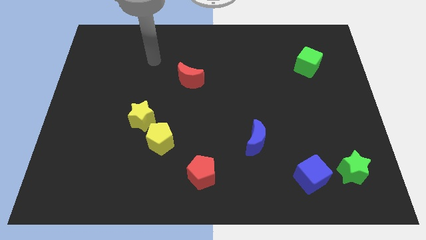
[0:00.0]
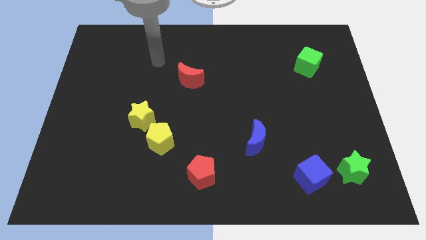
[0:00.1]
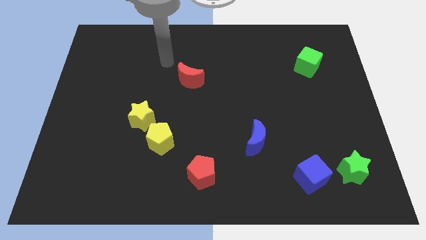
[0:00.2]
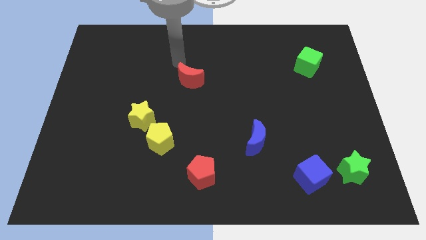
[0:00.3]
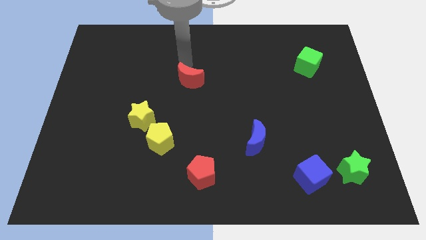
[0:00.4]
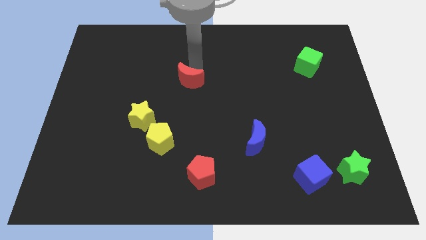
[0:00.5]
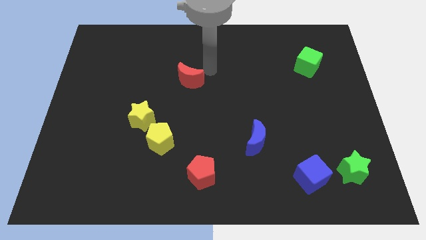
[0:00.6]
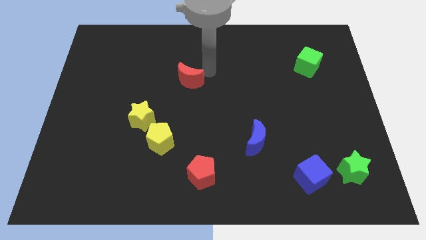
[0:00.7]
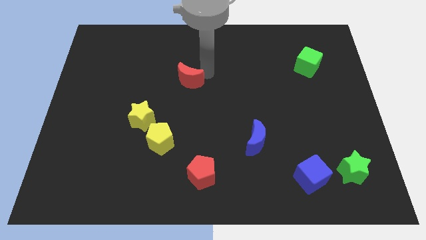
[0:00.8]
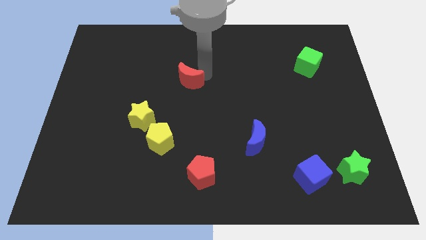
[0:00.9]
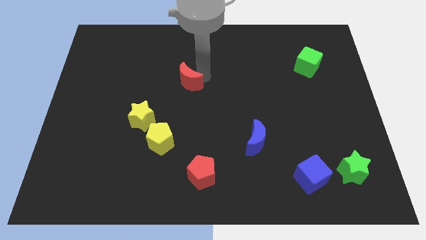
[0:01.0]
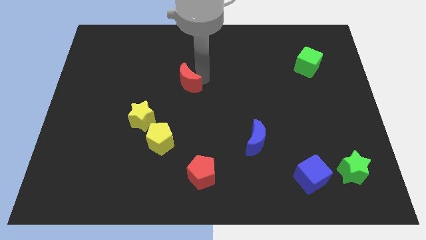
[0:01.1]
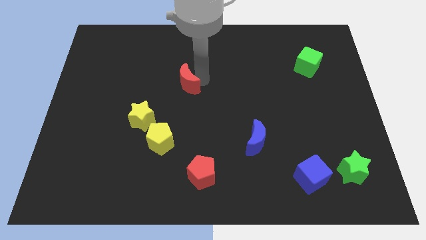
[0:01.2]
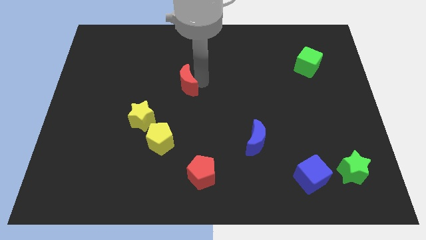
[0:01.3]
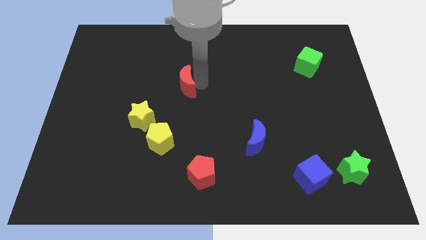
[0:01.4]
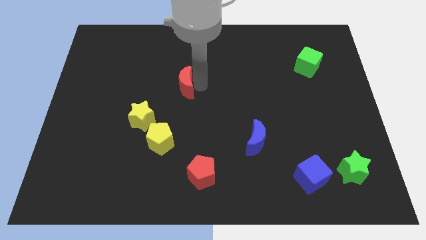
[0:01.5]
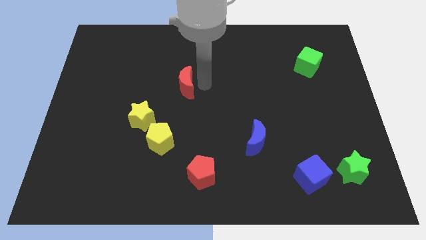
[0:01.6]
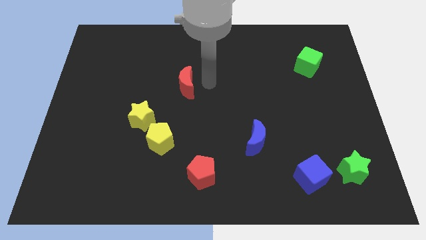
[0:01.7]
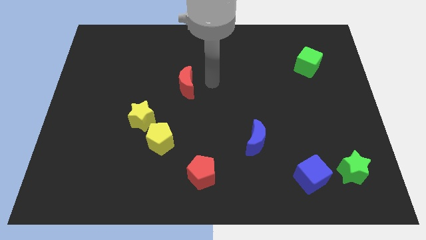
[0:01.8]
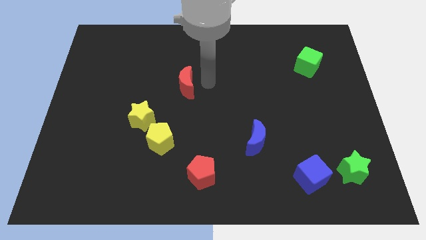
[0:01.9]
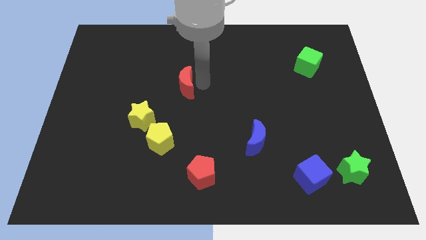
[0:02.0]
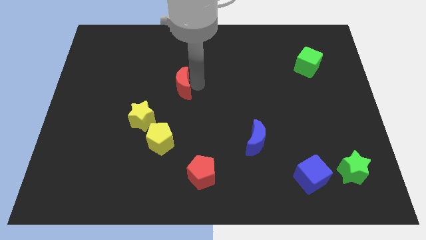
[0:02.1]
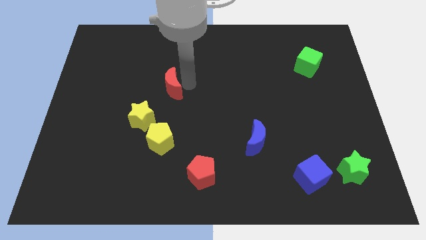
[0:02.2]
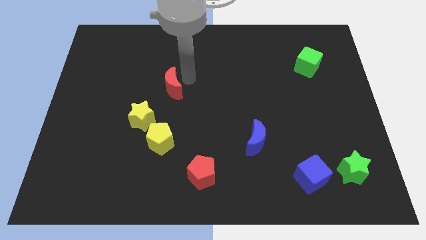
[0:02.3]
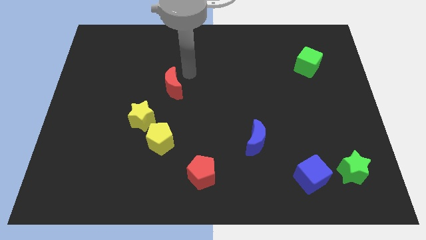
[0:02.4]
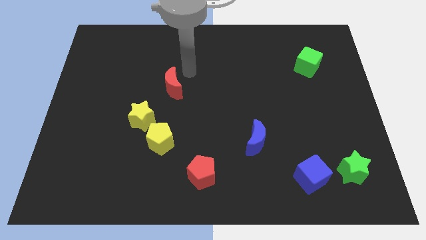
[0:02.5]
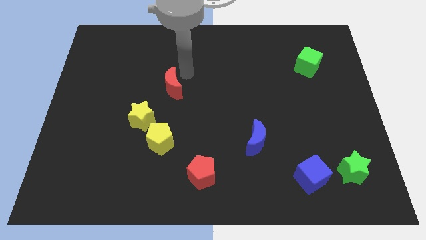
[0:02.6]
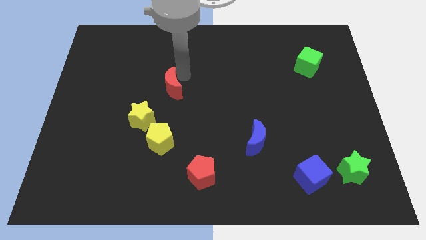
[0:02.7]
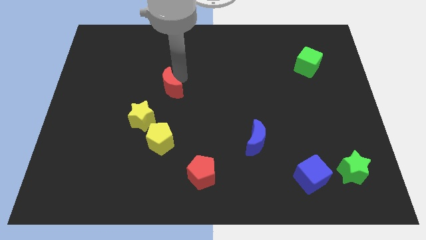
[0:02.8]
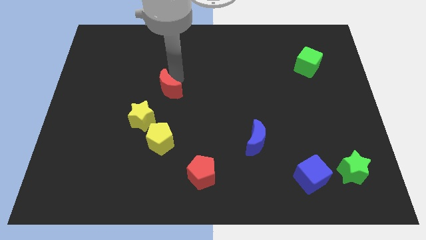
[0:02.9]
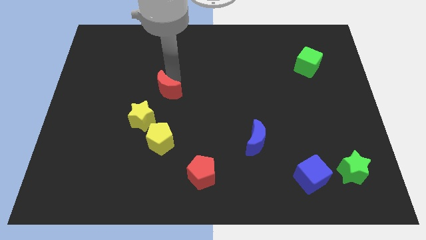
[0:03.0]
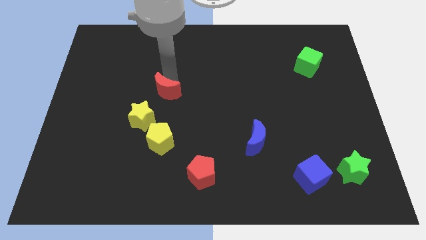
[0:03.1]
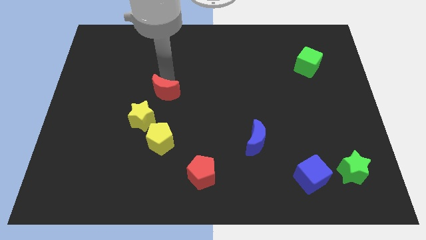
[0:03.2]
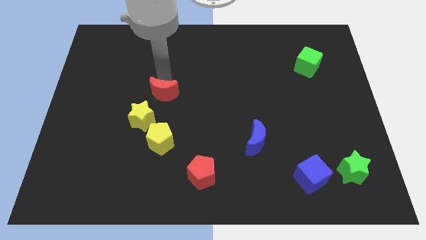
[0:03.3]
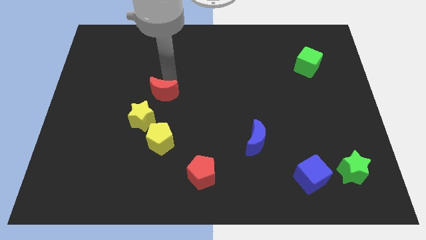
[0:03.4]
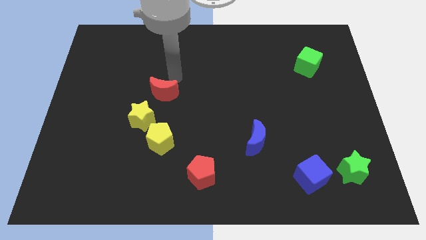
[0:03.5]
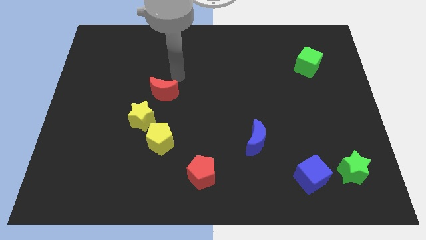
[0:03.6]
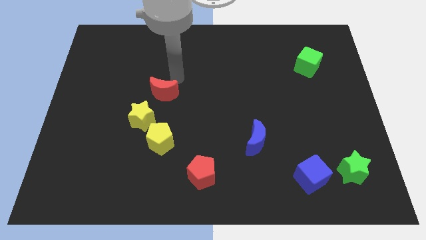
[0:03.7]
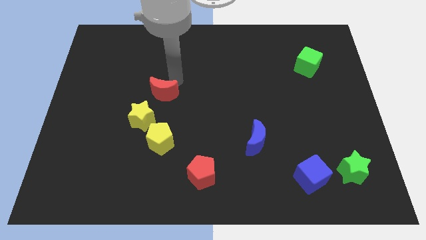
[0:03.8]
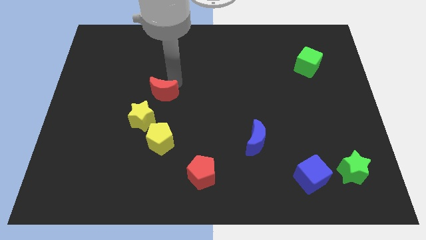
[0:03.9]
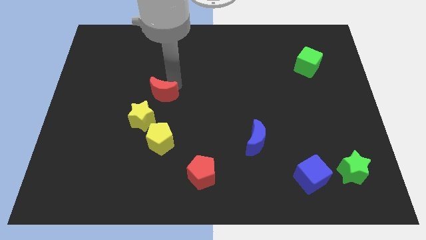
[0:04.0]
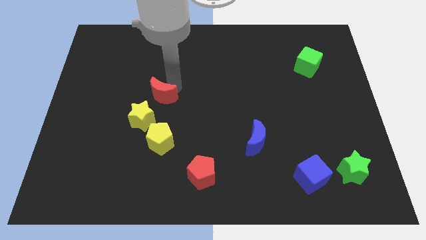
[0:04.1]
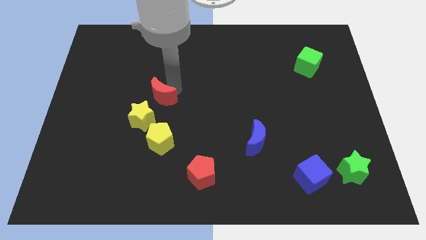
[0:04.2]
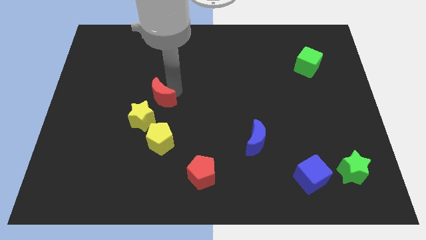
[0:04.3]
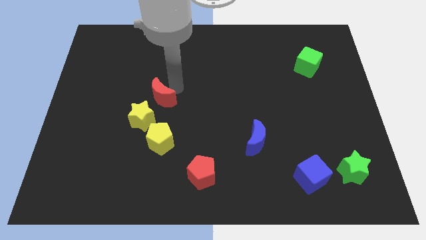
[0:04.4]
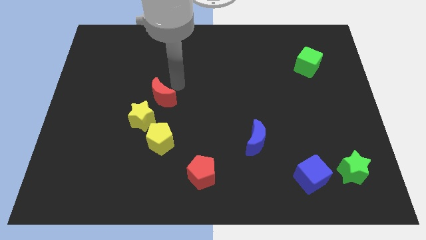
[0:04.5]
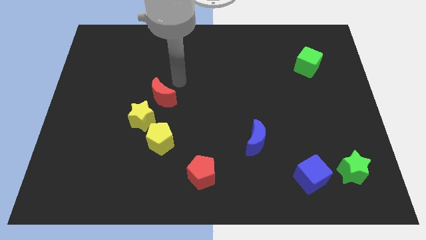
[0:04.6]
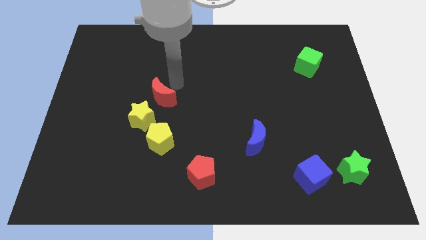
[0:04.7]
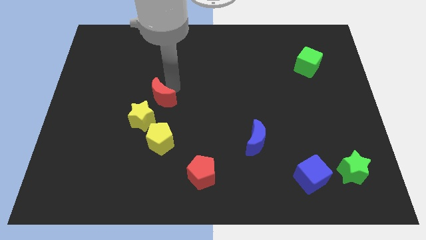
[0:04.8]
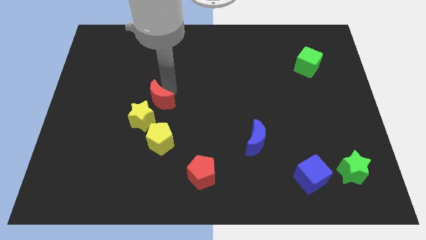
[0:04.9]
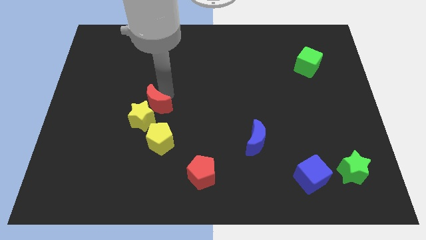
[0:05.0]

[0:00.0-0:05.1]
move the red moon next to the yellow star

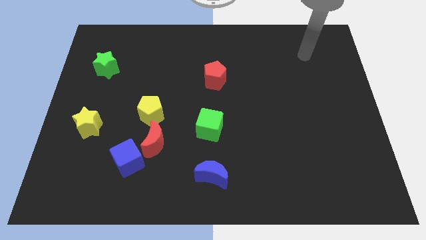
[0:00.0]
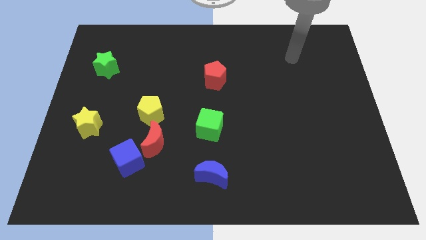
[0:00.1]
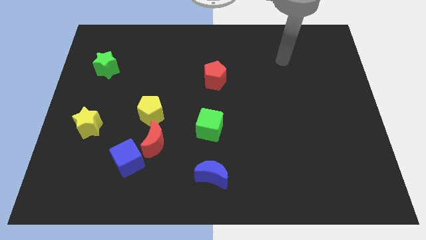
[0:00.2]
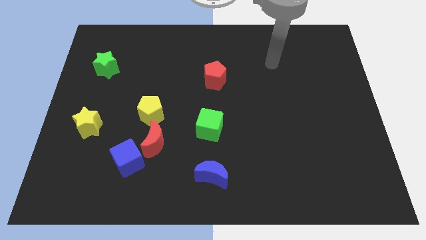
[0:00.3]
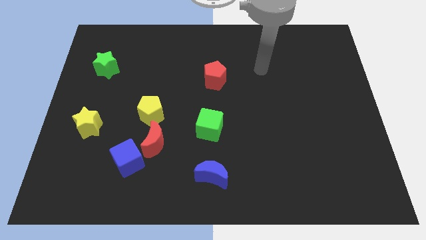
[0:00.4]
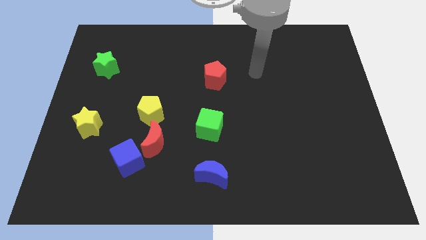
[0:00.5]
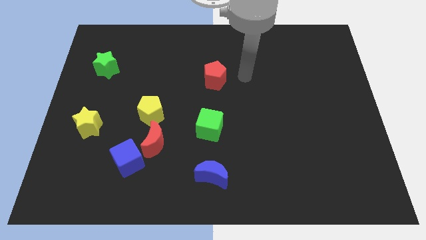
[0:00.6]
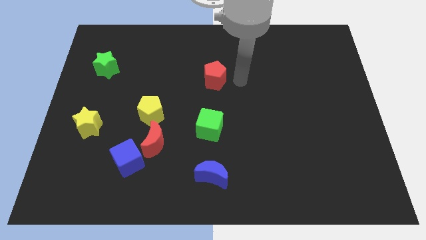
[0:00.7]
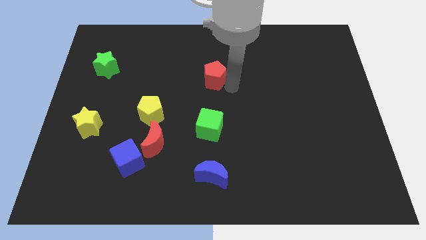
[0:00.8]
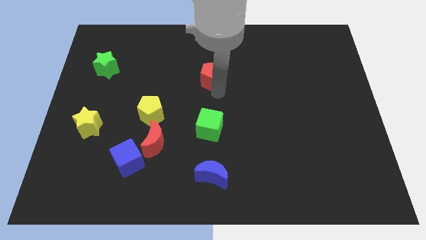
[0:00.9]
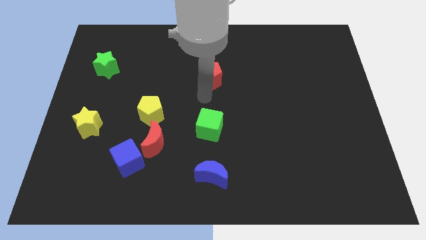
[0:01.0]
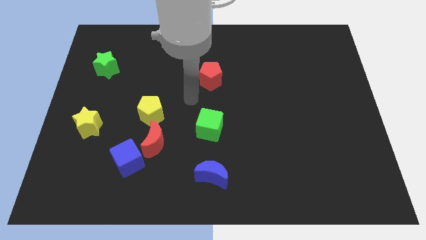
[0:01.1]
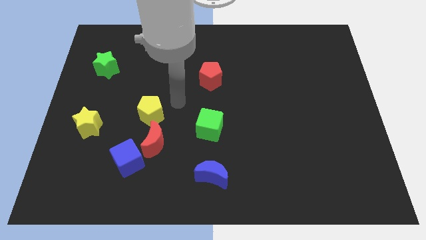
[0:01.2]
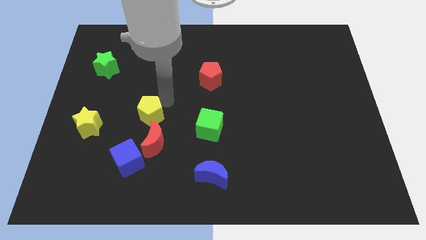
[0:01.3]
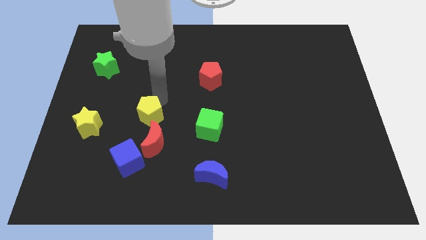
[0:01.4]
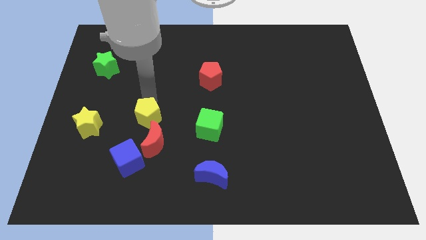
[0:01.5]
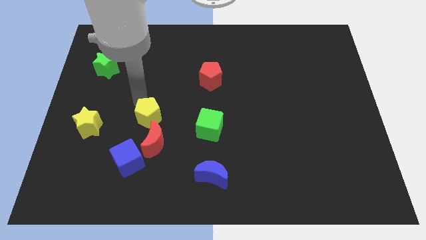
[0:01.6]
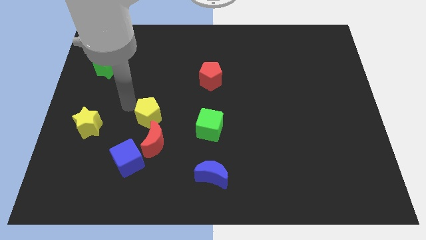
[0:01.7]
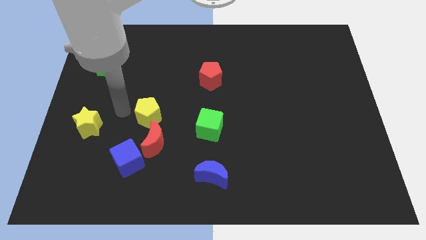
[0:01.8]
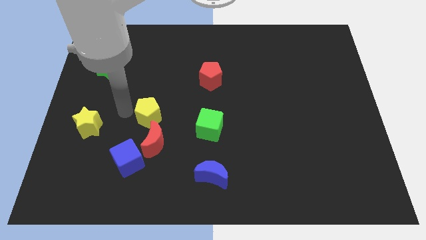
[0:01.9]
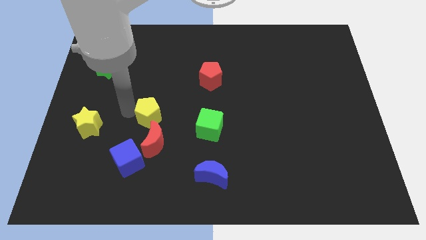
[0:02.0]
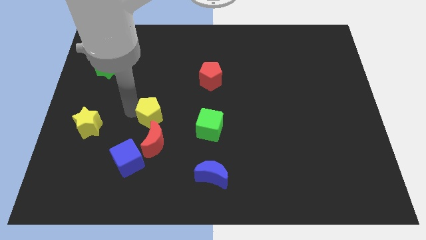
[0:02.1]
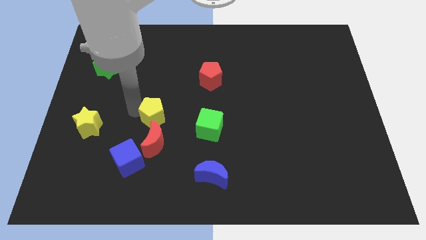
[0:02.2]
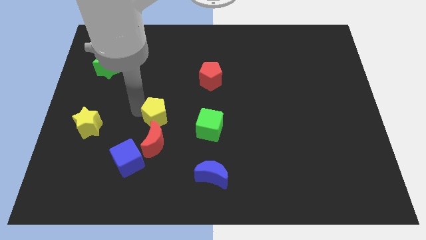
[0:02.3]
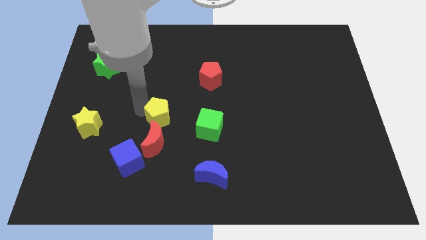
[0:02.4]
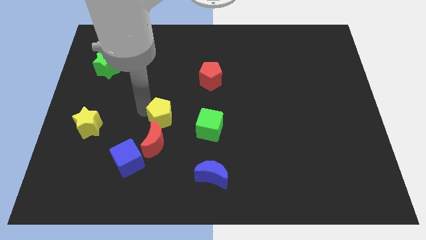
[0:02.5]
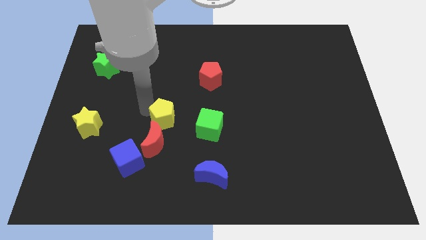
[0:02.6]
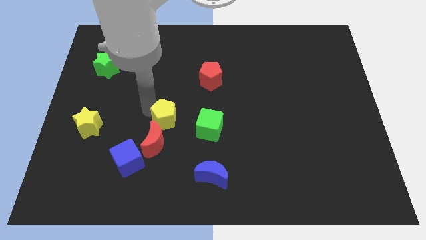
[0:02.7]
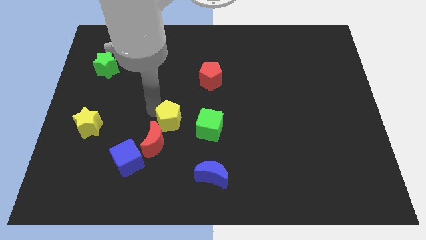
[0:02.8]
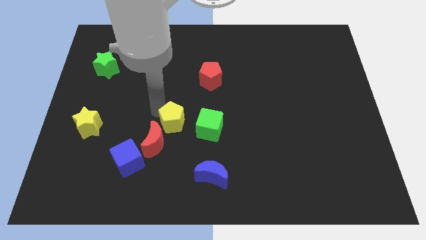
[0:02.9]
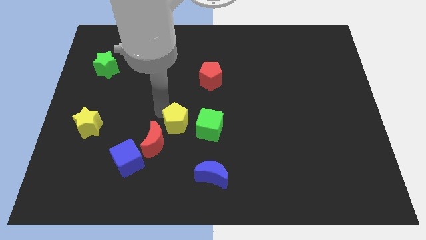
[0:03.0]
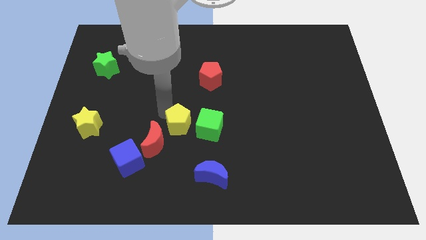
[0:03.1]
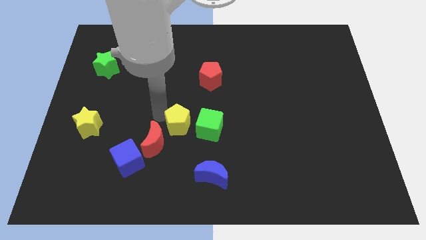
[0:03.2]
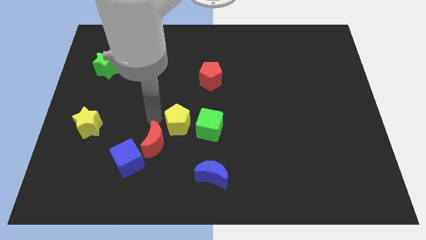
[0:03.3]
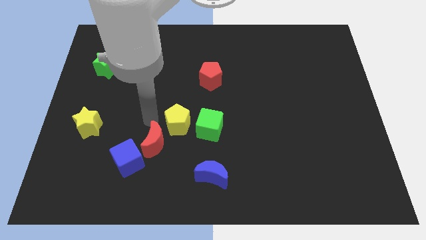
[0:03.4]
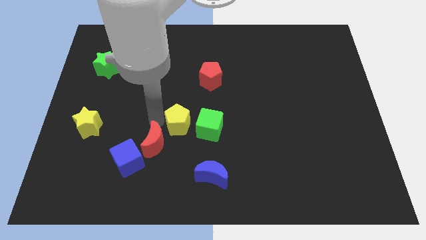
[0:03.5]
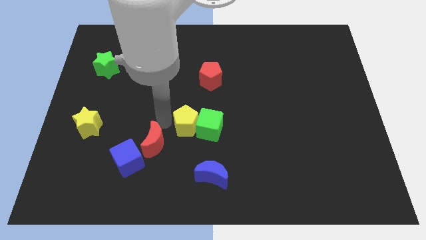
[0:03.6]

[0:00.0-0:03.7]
slide the yellow pentagon close to the green cube
